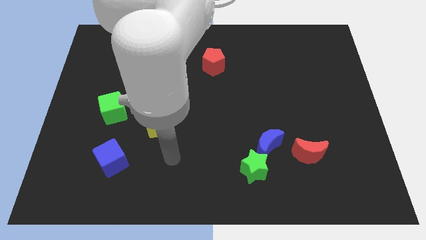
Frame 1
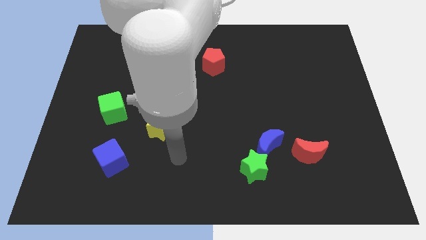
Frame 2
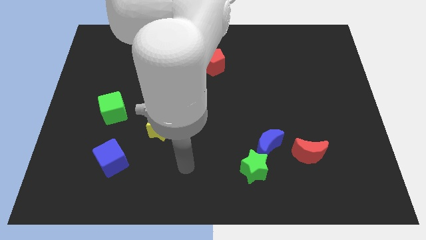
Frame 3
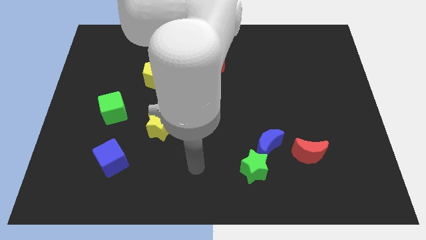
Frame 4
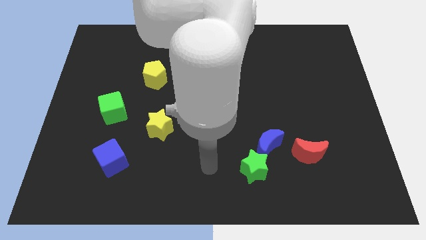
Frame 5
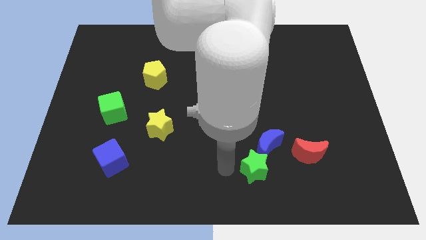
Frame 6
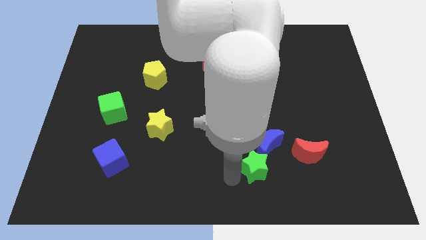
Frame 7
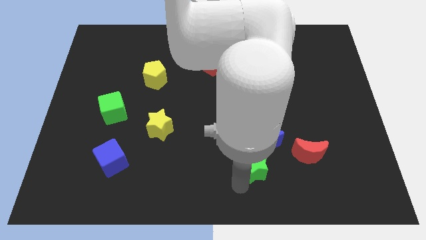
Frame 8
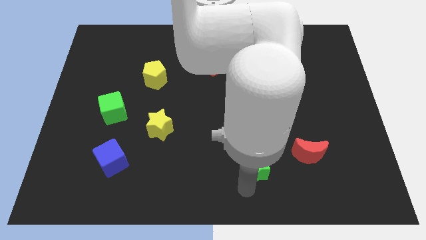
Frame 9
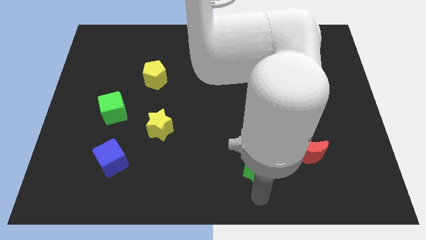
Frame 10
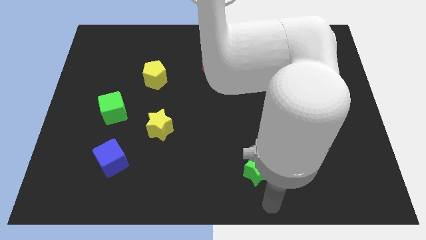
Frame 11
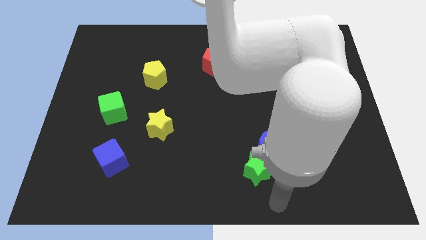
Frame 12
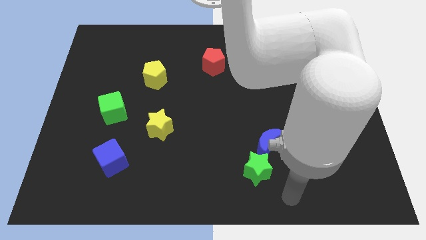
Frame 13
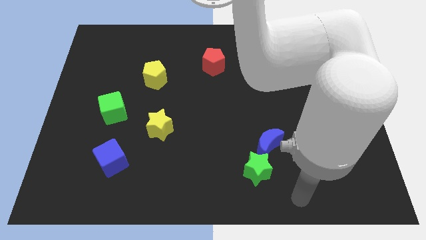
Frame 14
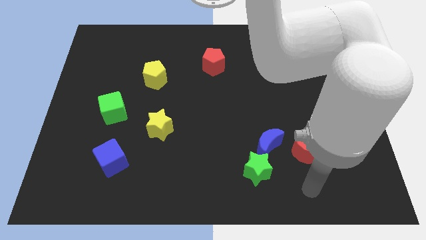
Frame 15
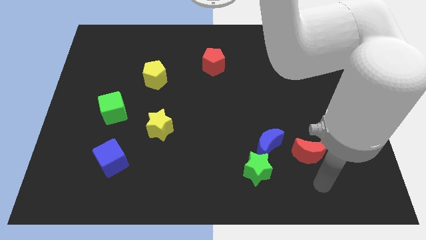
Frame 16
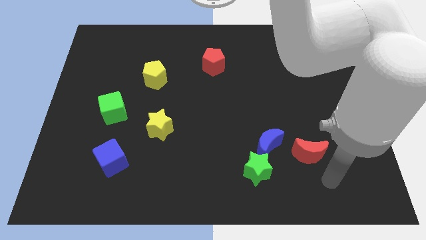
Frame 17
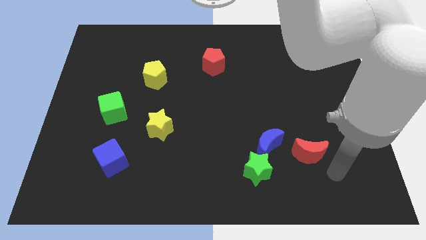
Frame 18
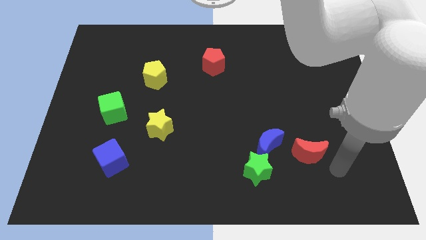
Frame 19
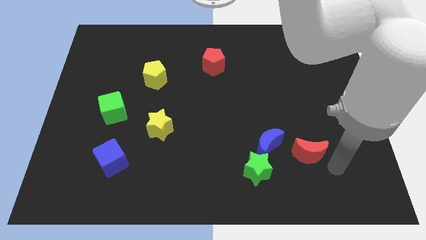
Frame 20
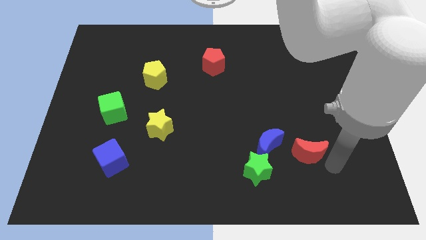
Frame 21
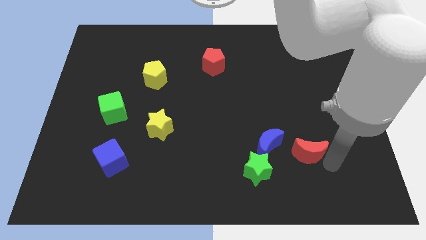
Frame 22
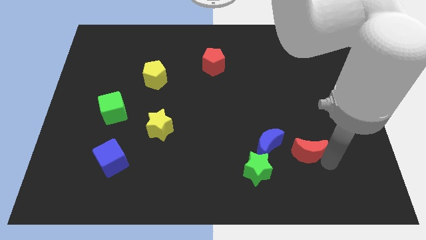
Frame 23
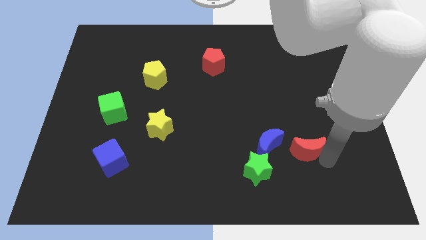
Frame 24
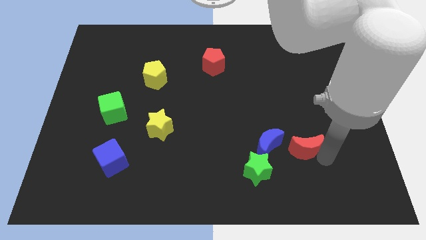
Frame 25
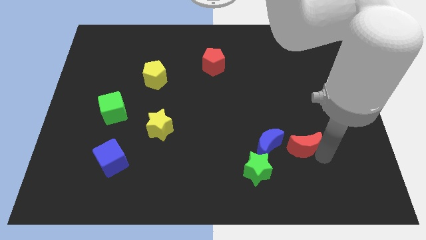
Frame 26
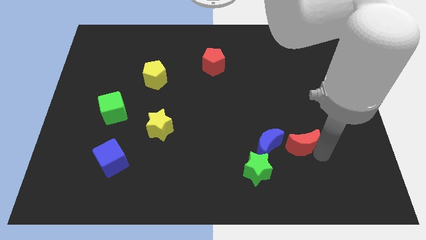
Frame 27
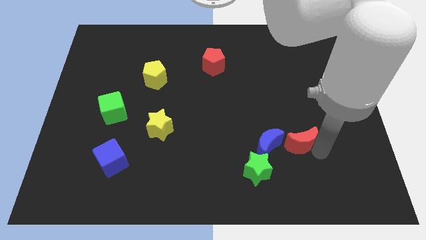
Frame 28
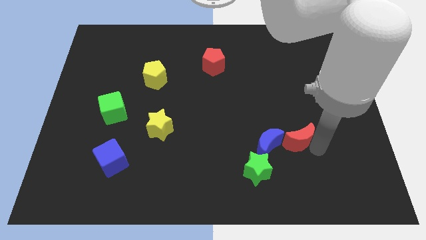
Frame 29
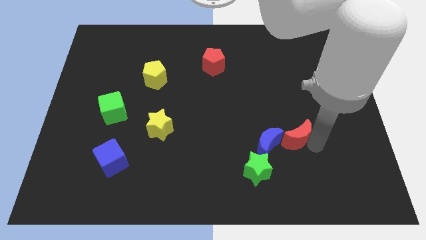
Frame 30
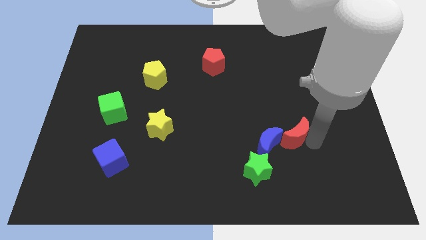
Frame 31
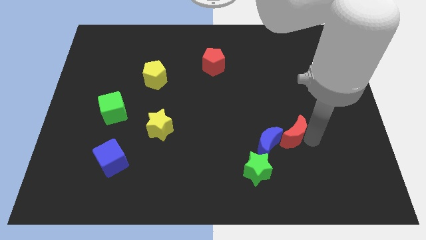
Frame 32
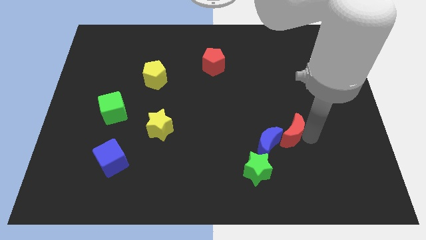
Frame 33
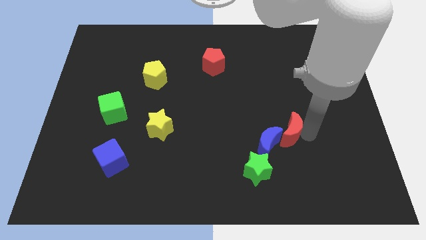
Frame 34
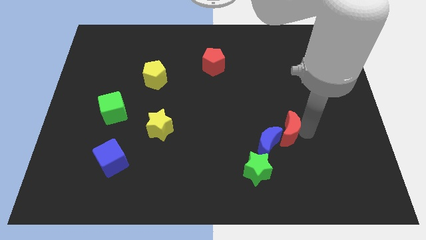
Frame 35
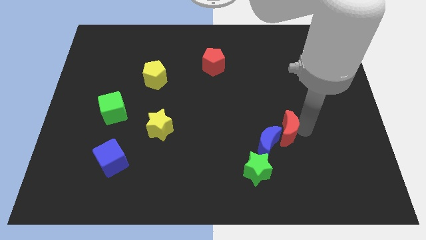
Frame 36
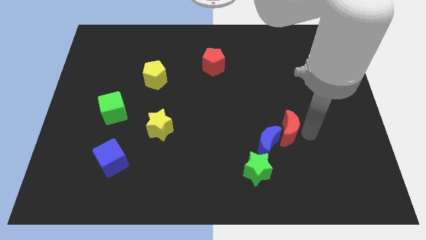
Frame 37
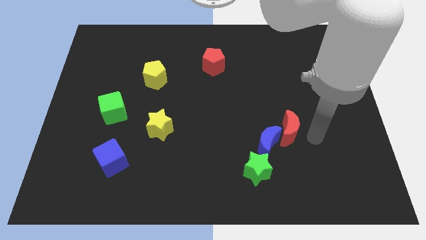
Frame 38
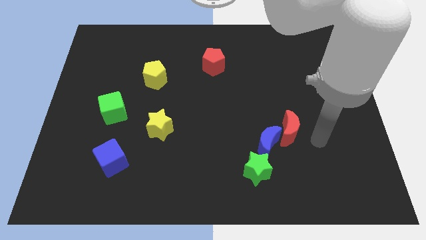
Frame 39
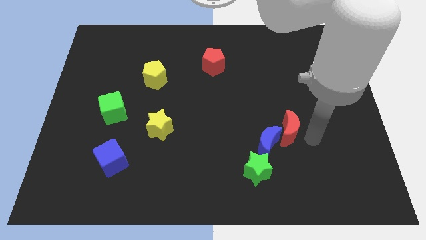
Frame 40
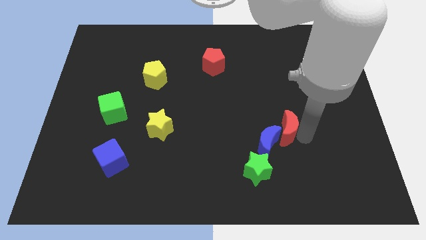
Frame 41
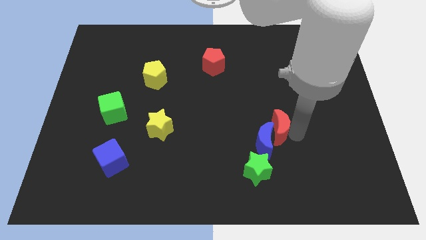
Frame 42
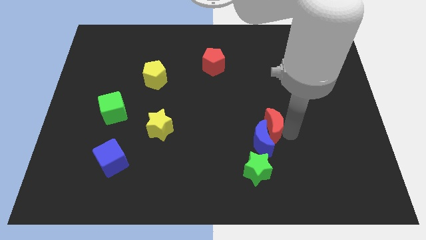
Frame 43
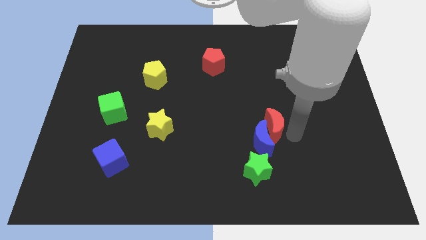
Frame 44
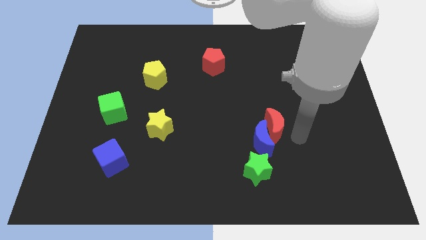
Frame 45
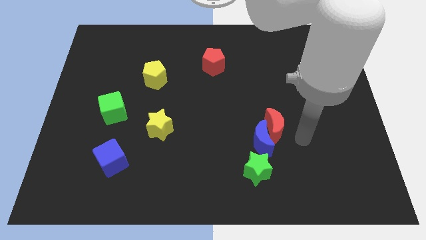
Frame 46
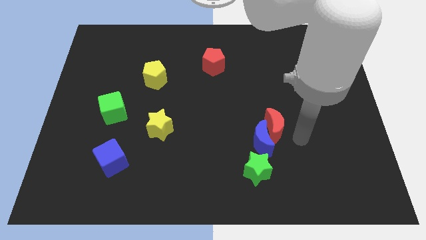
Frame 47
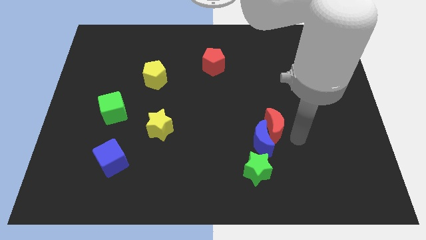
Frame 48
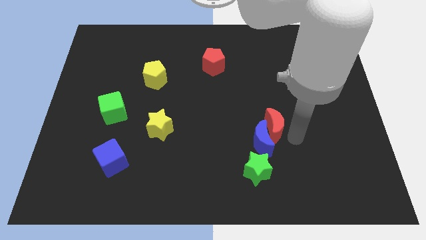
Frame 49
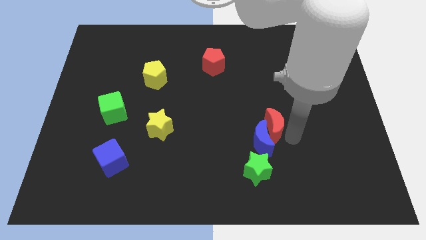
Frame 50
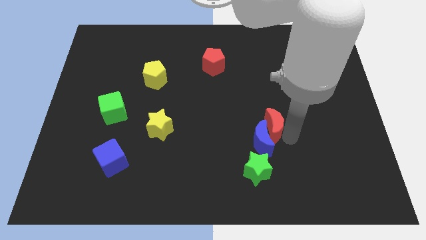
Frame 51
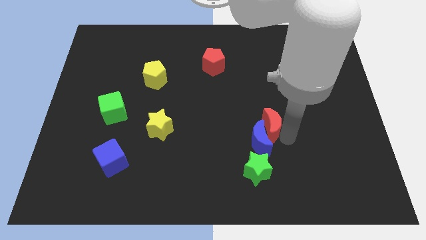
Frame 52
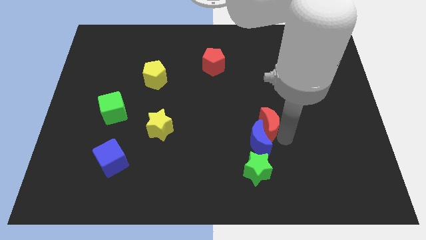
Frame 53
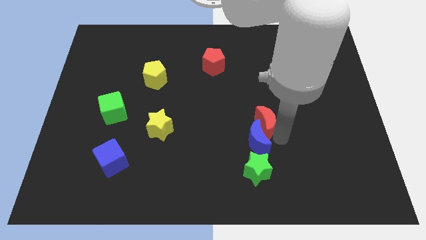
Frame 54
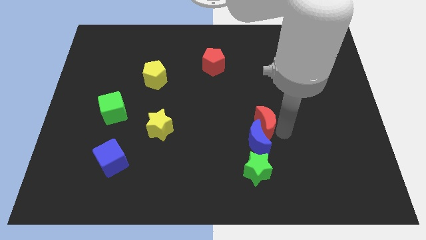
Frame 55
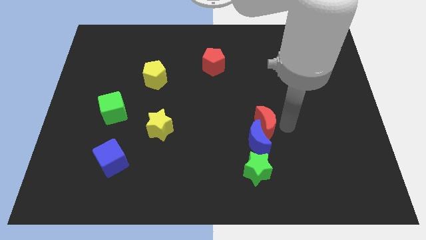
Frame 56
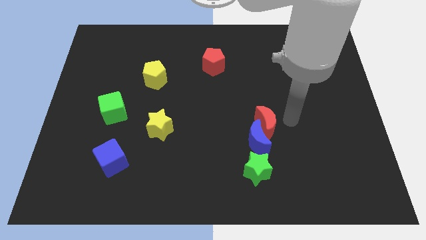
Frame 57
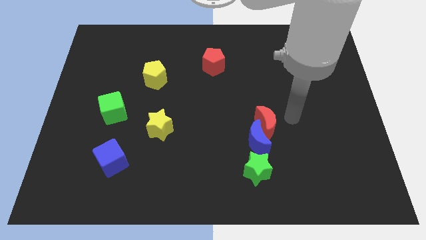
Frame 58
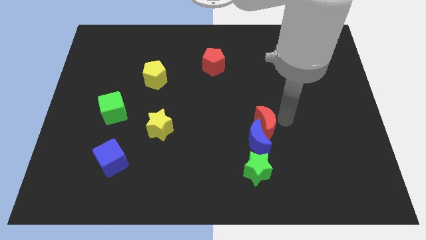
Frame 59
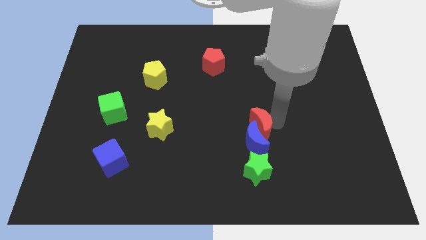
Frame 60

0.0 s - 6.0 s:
slightly slide the red moon left

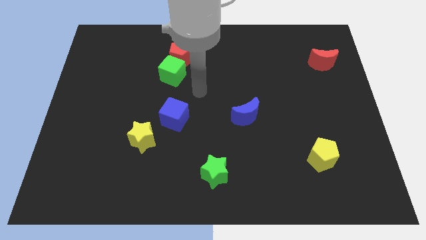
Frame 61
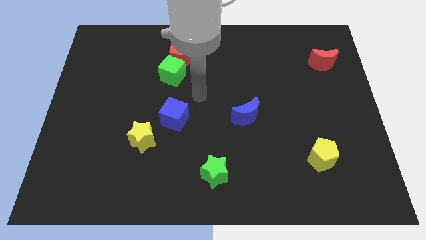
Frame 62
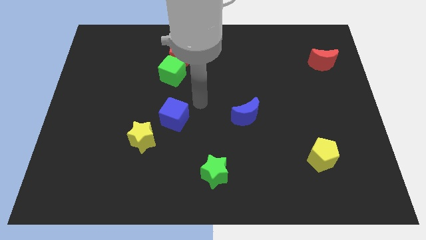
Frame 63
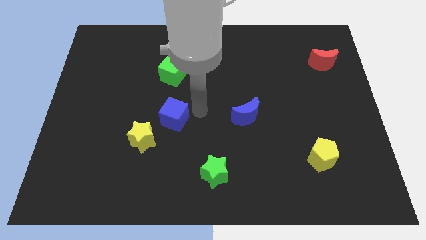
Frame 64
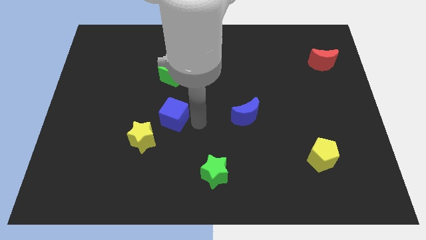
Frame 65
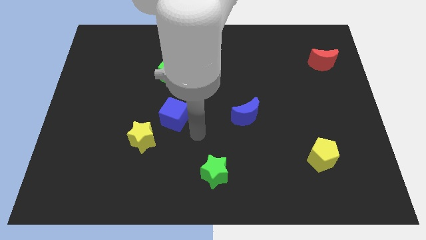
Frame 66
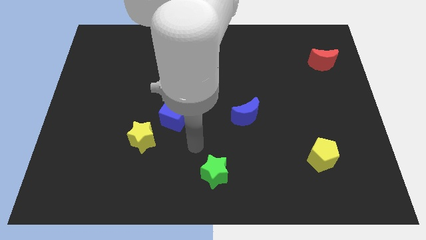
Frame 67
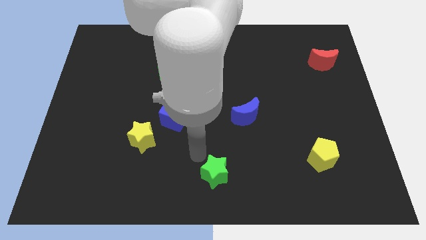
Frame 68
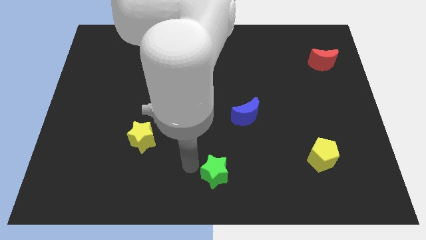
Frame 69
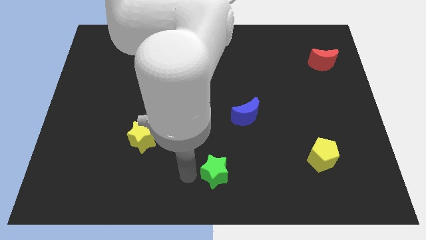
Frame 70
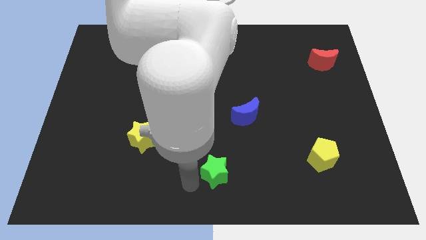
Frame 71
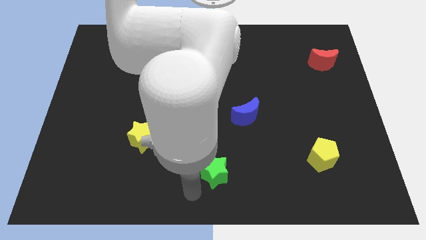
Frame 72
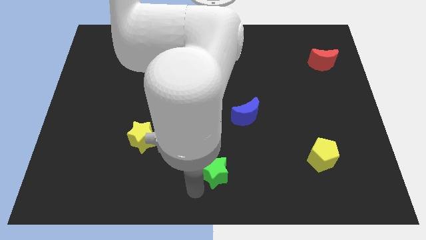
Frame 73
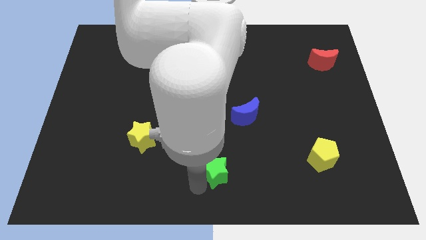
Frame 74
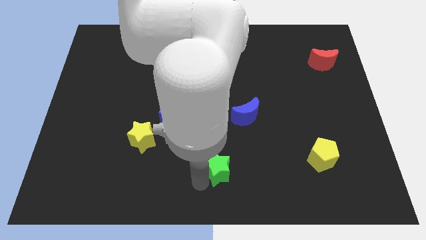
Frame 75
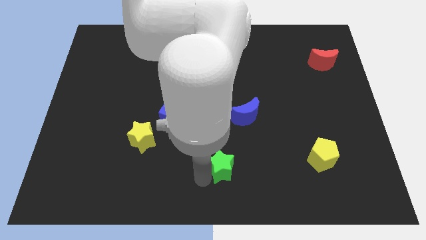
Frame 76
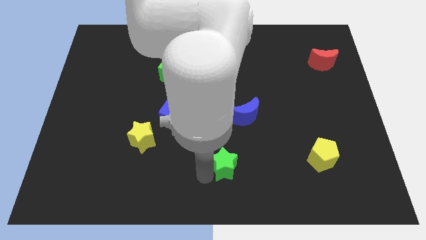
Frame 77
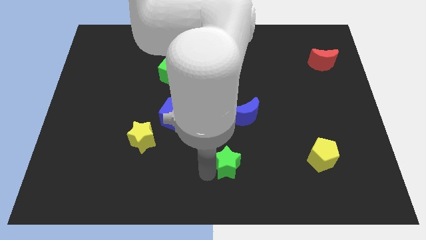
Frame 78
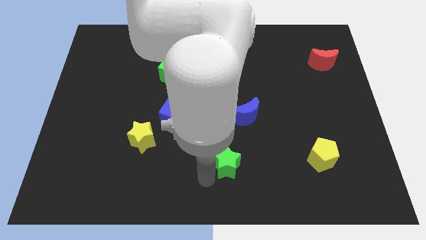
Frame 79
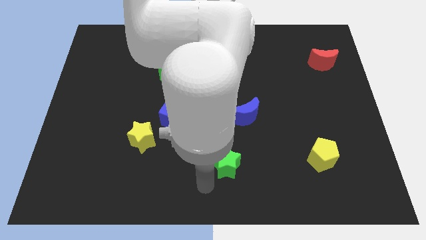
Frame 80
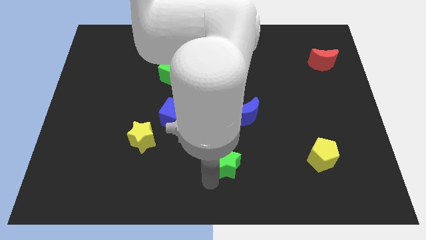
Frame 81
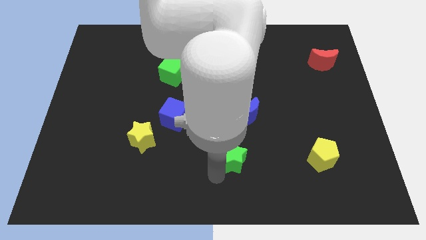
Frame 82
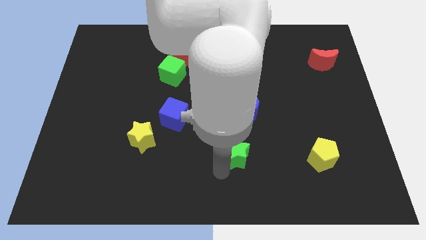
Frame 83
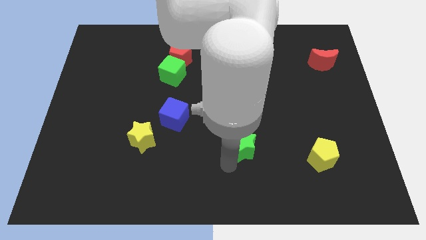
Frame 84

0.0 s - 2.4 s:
slightly slide the green star upwards and right
